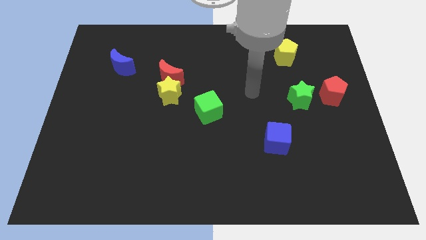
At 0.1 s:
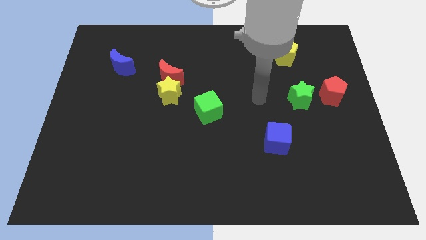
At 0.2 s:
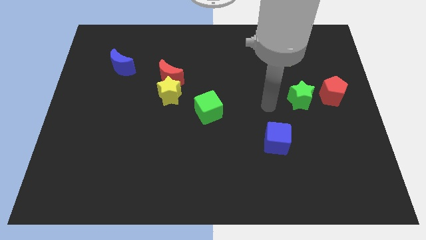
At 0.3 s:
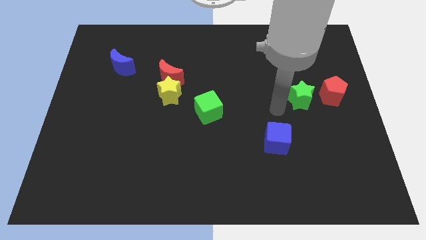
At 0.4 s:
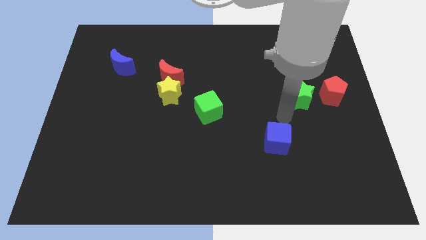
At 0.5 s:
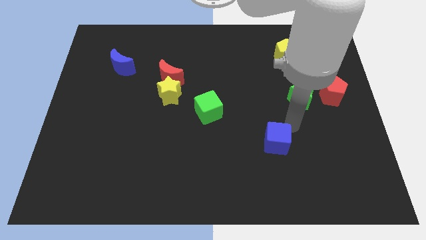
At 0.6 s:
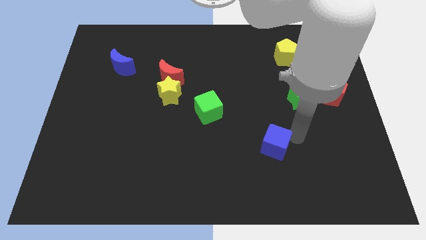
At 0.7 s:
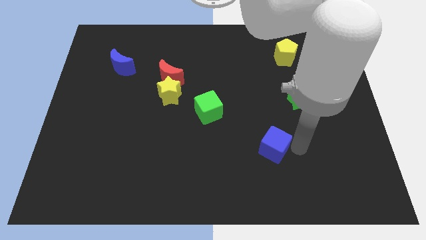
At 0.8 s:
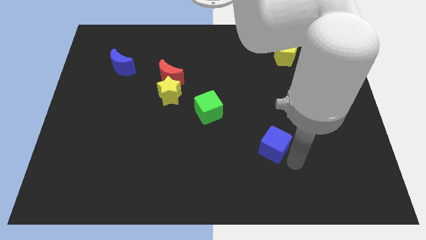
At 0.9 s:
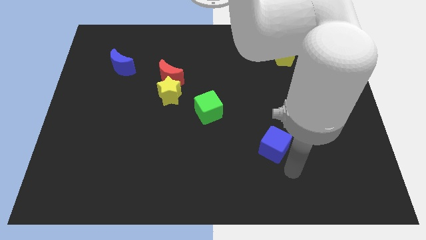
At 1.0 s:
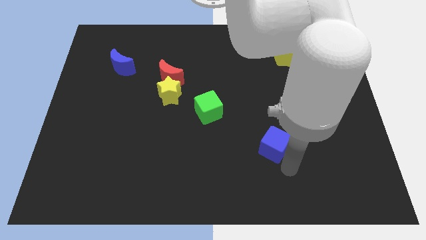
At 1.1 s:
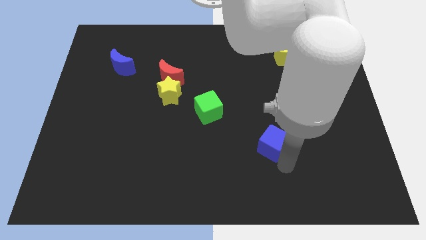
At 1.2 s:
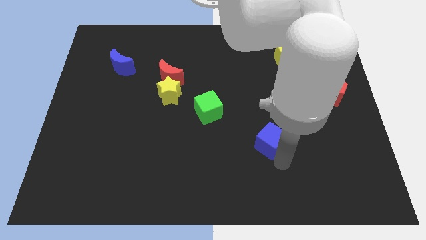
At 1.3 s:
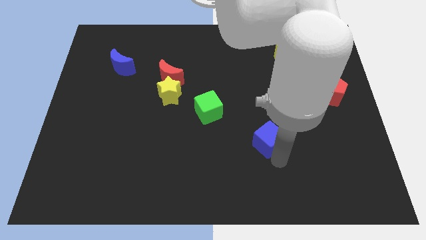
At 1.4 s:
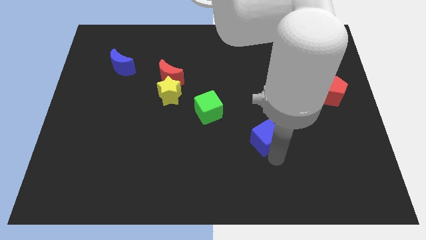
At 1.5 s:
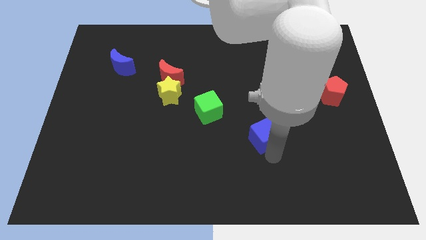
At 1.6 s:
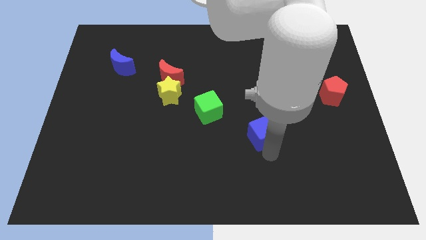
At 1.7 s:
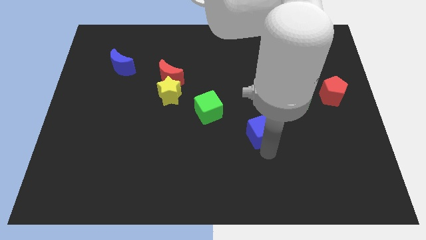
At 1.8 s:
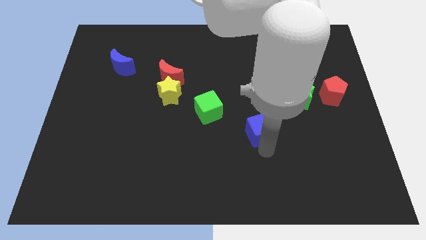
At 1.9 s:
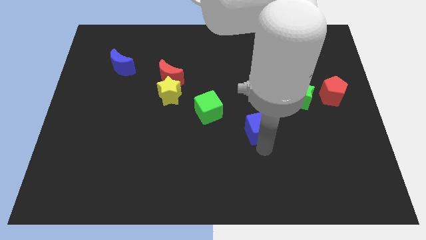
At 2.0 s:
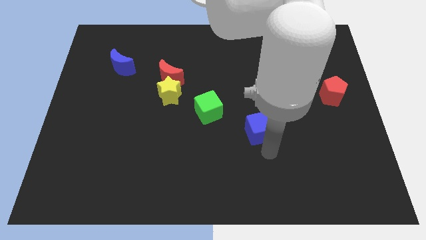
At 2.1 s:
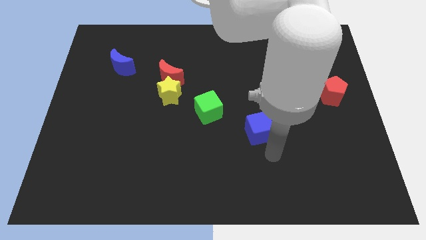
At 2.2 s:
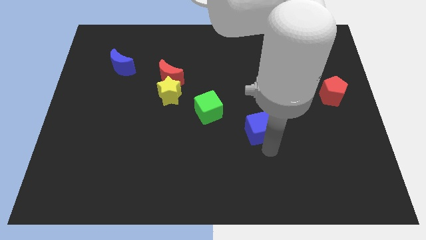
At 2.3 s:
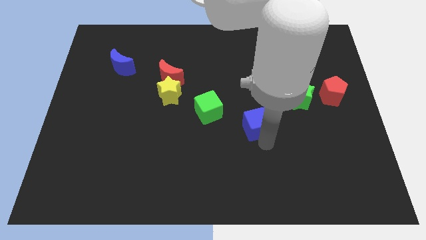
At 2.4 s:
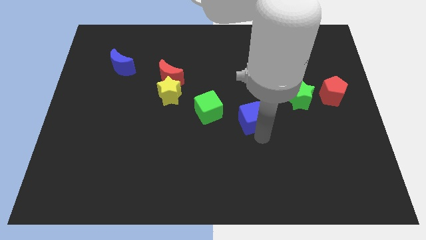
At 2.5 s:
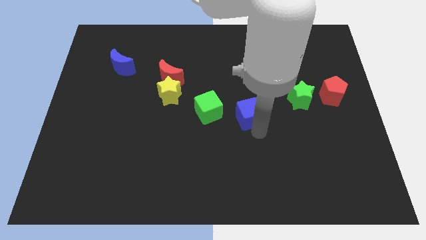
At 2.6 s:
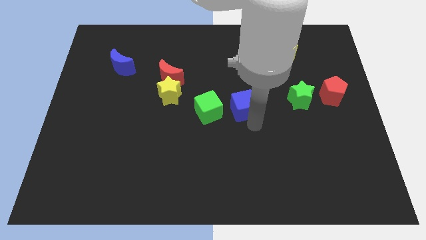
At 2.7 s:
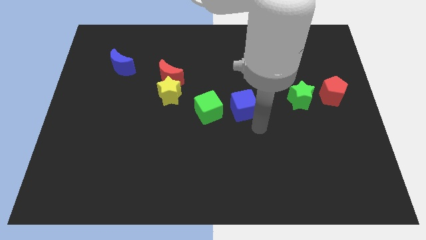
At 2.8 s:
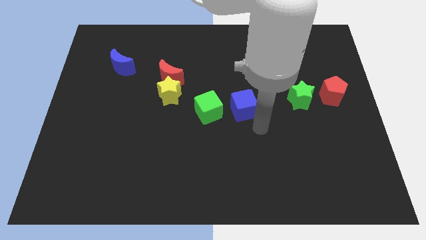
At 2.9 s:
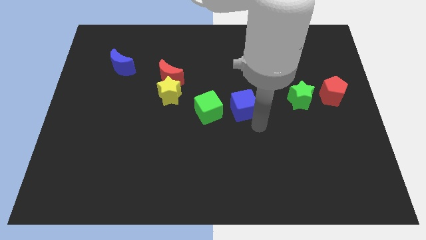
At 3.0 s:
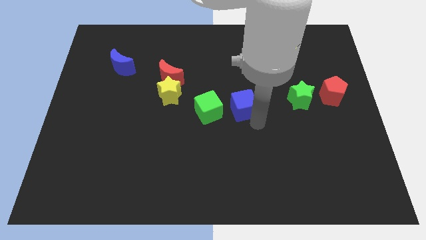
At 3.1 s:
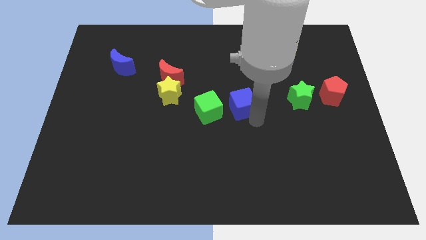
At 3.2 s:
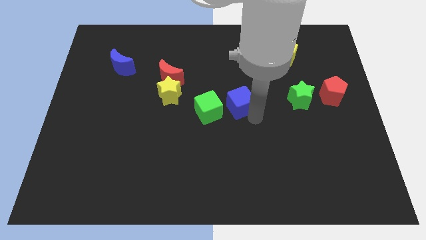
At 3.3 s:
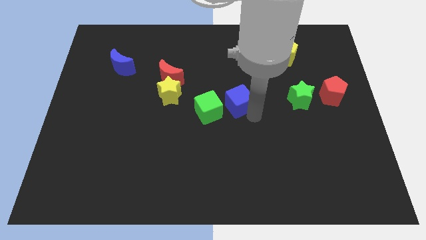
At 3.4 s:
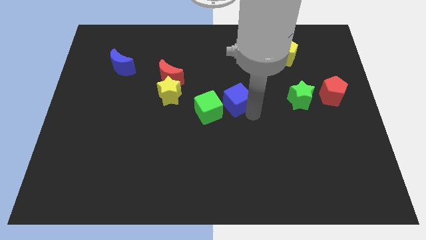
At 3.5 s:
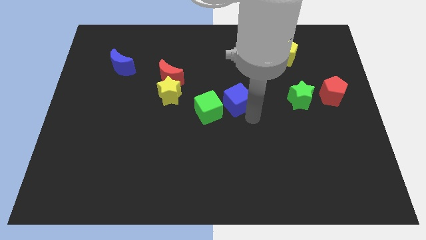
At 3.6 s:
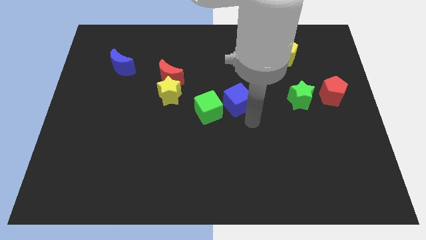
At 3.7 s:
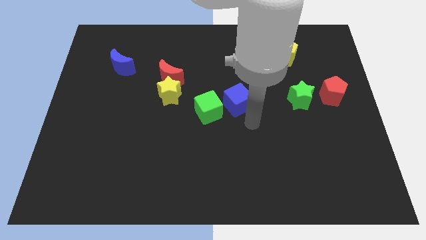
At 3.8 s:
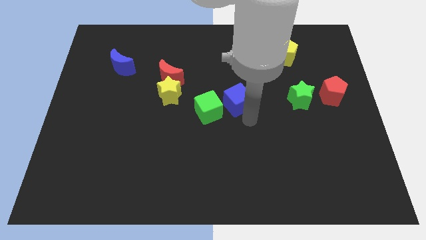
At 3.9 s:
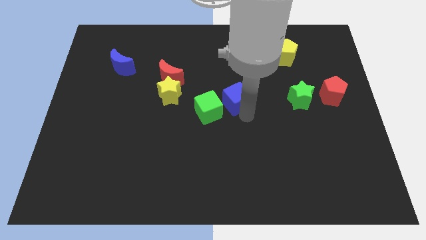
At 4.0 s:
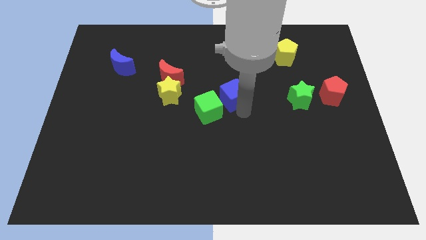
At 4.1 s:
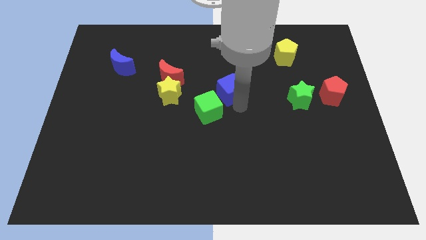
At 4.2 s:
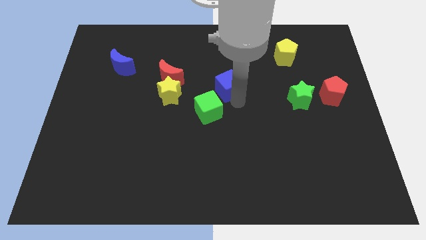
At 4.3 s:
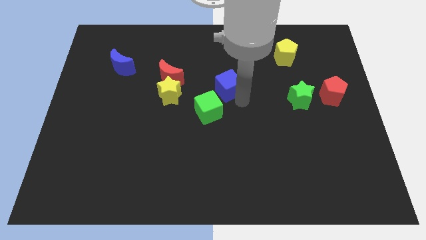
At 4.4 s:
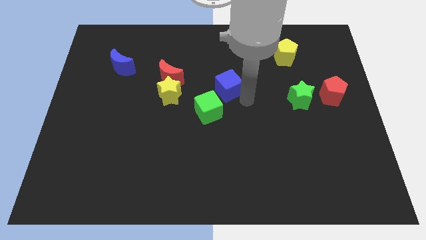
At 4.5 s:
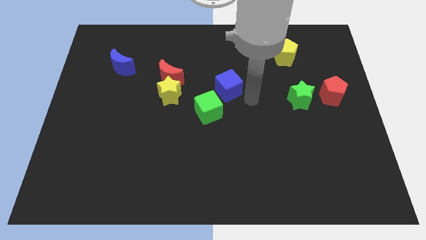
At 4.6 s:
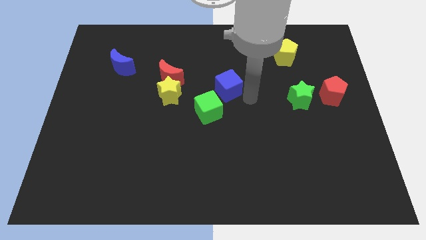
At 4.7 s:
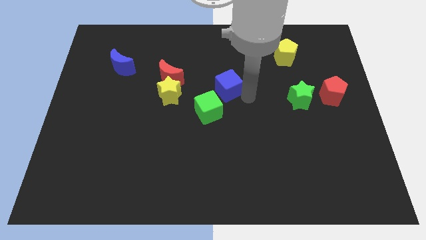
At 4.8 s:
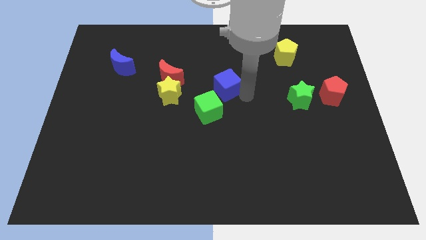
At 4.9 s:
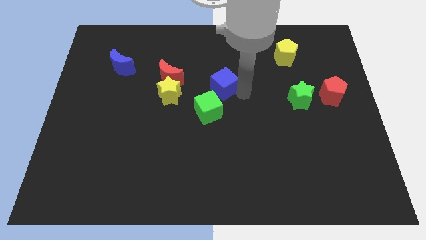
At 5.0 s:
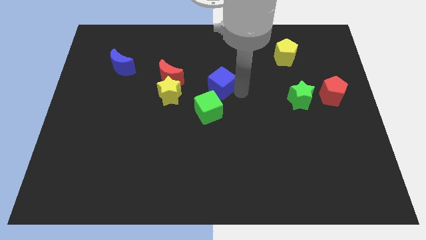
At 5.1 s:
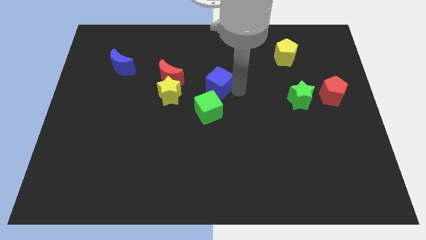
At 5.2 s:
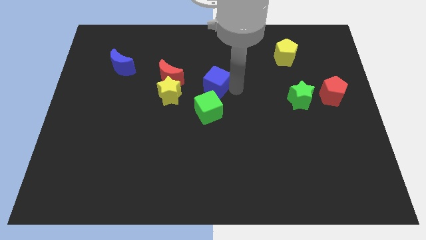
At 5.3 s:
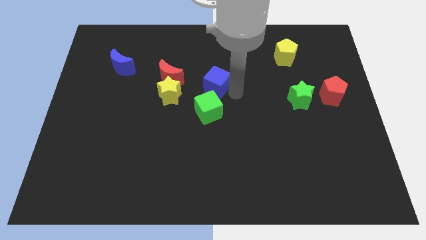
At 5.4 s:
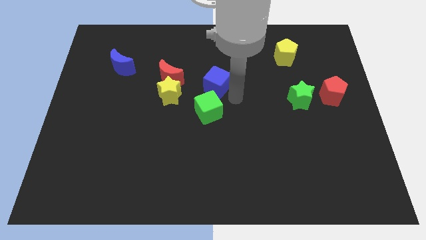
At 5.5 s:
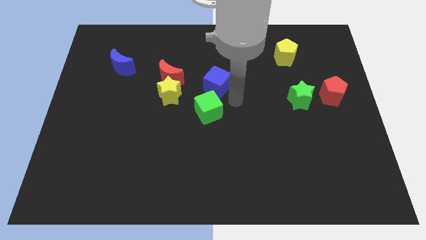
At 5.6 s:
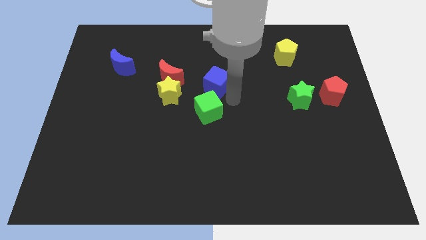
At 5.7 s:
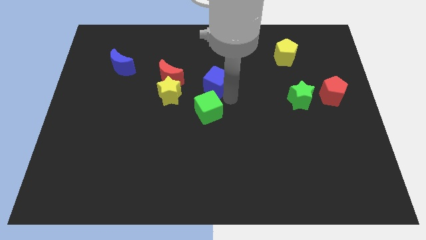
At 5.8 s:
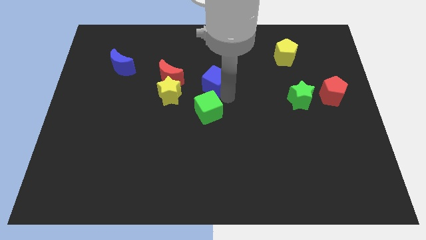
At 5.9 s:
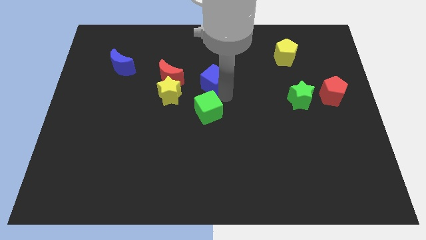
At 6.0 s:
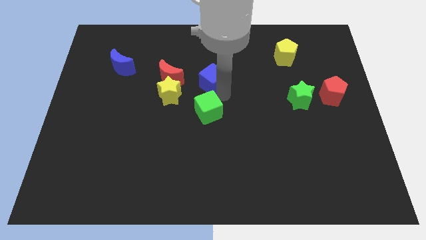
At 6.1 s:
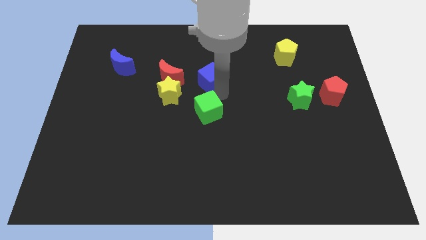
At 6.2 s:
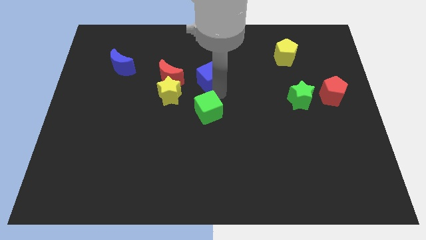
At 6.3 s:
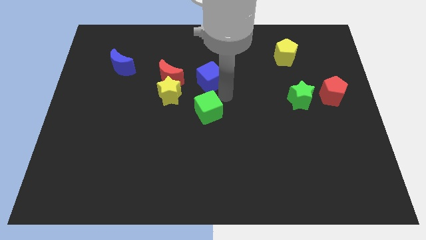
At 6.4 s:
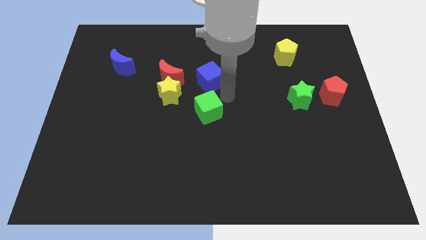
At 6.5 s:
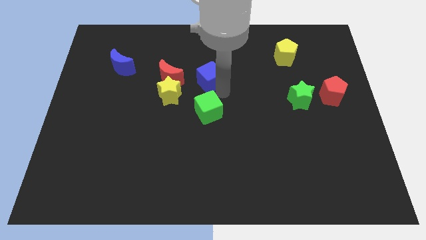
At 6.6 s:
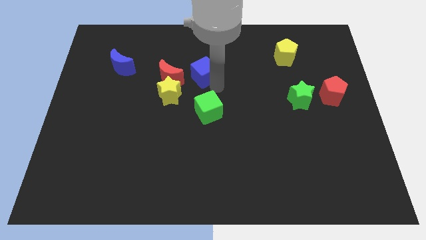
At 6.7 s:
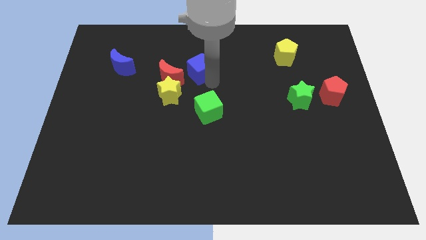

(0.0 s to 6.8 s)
slide the blue cube to the top right of the red moon
